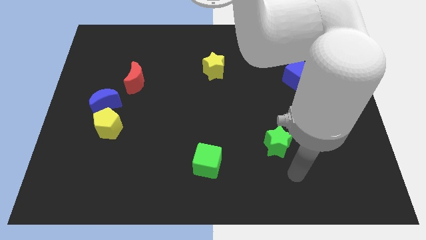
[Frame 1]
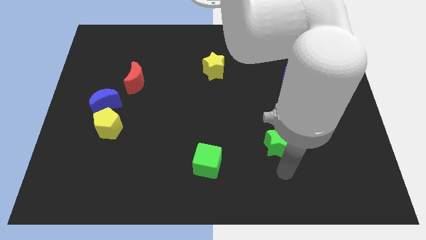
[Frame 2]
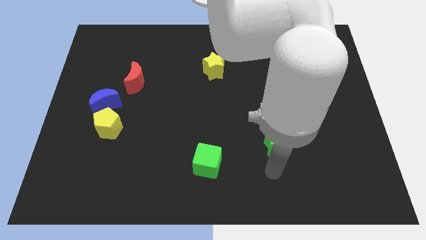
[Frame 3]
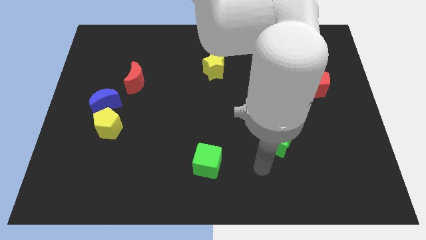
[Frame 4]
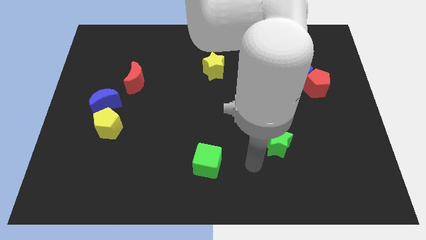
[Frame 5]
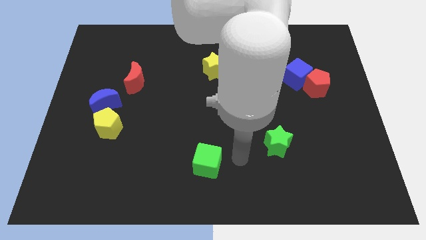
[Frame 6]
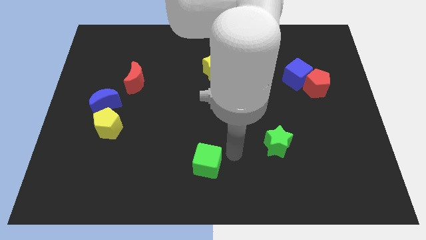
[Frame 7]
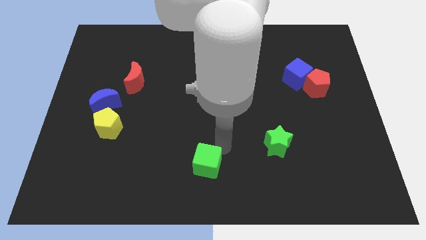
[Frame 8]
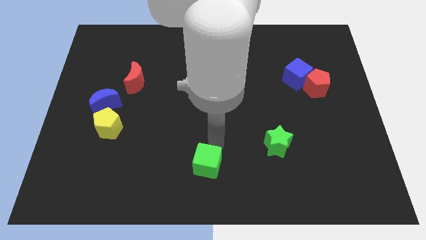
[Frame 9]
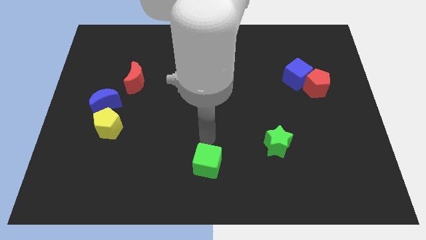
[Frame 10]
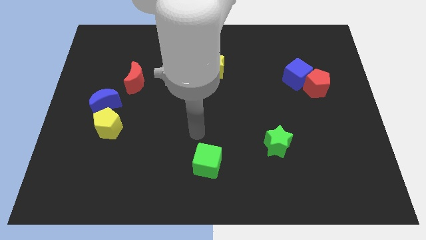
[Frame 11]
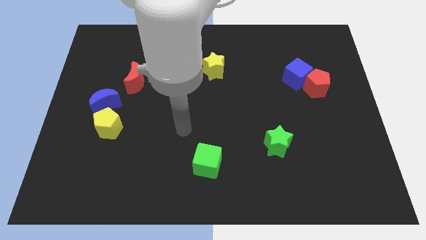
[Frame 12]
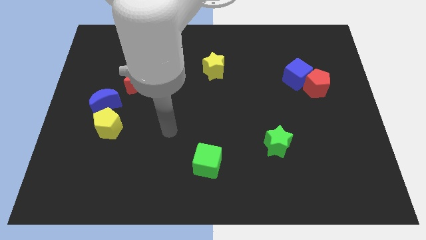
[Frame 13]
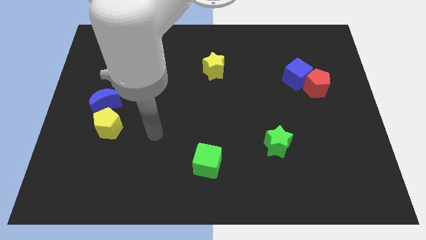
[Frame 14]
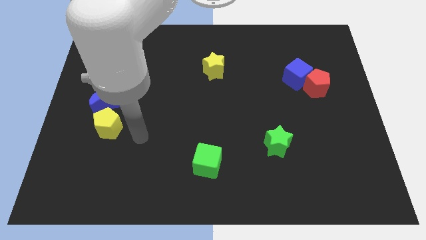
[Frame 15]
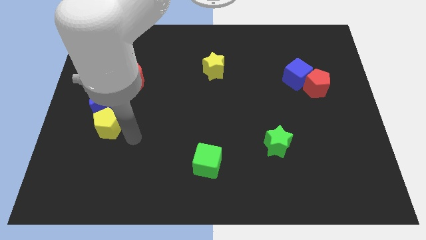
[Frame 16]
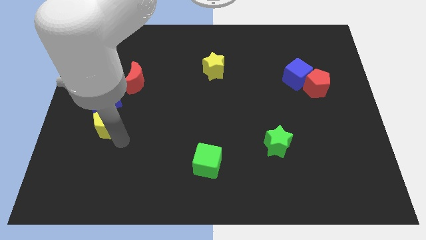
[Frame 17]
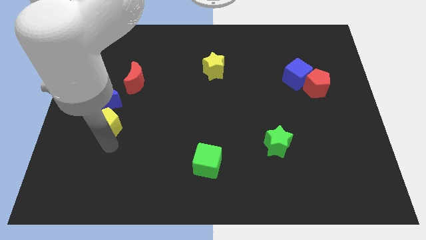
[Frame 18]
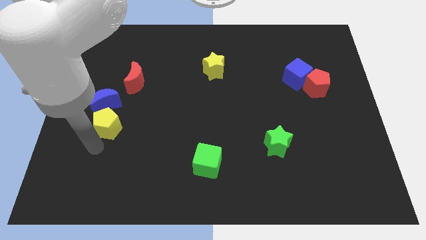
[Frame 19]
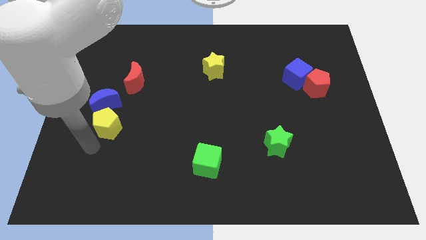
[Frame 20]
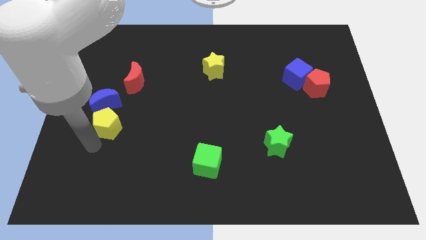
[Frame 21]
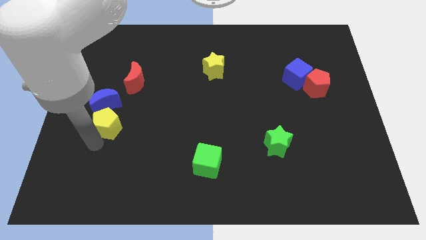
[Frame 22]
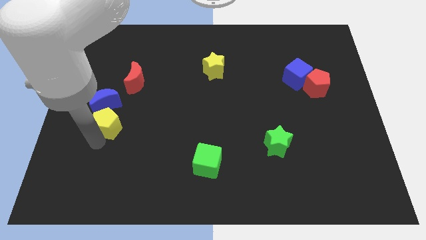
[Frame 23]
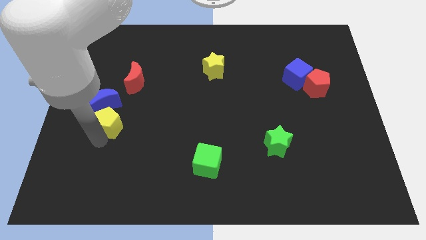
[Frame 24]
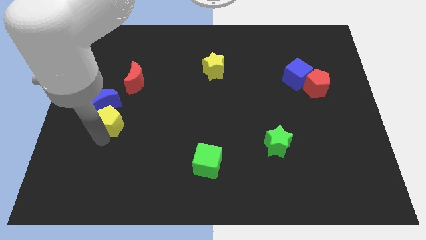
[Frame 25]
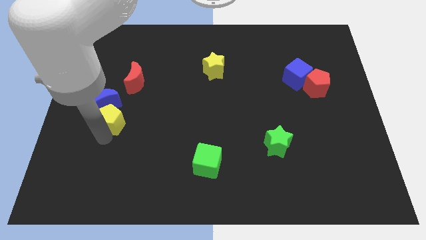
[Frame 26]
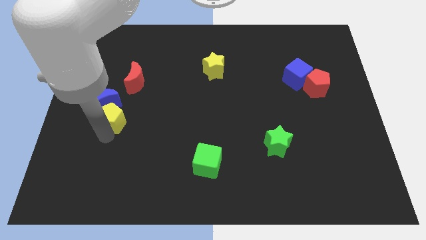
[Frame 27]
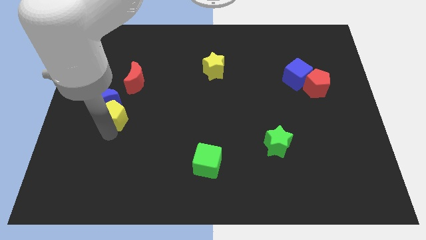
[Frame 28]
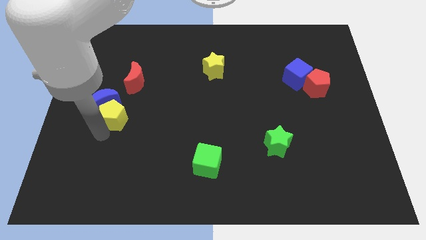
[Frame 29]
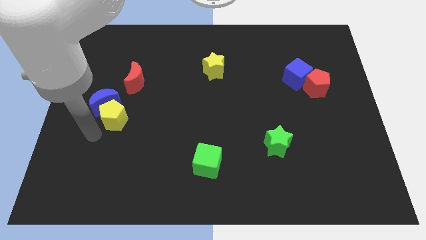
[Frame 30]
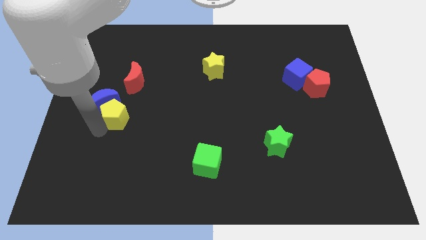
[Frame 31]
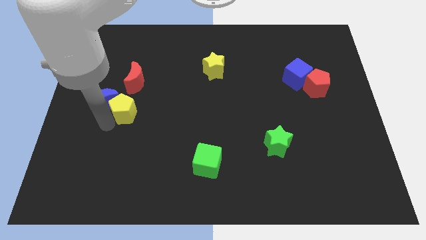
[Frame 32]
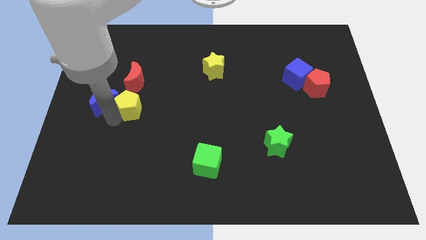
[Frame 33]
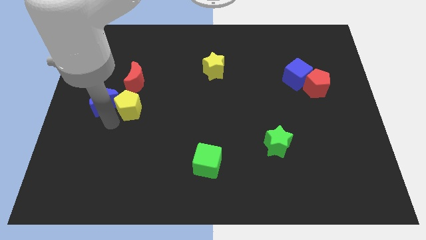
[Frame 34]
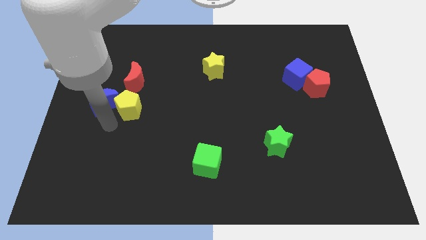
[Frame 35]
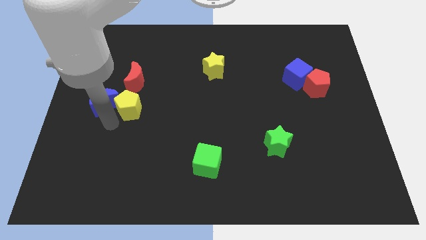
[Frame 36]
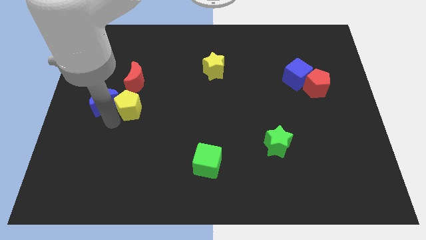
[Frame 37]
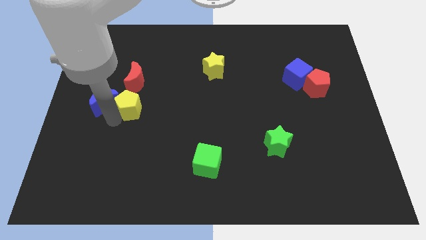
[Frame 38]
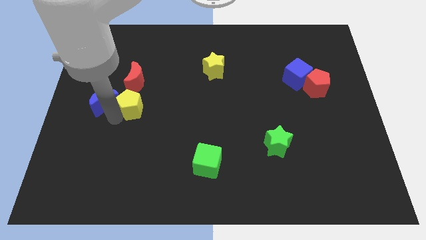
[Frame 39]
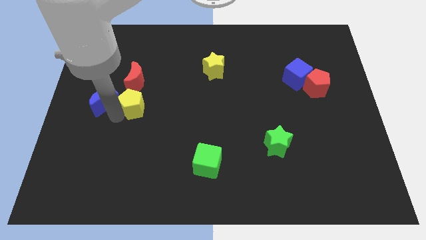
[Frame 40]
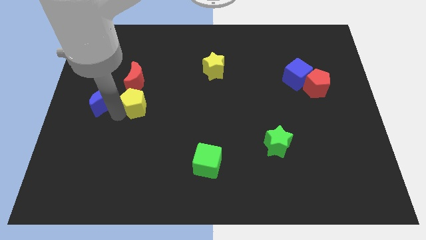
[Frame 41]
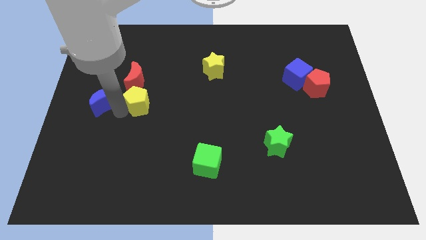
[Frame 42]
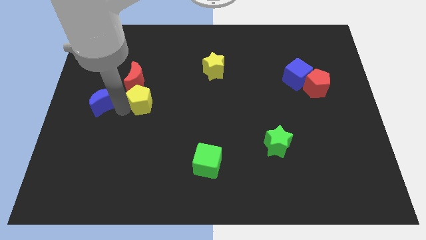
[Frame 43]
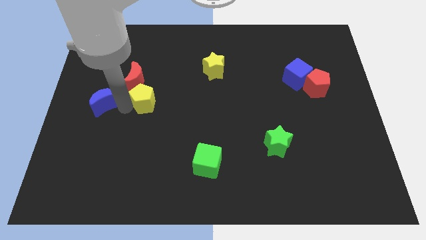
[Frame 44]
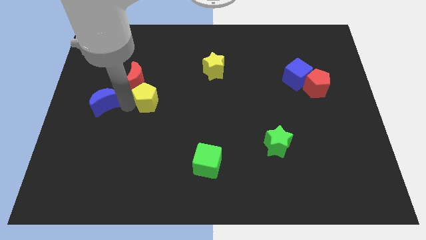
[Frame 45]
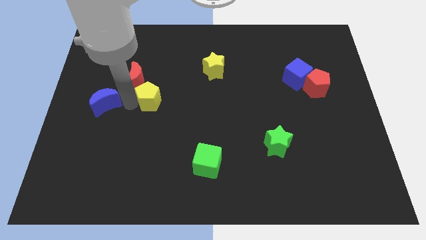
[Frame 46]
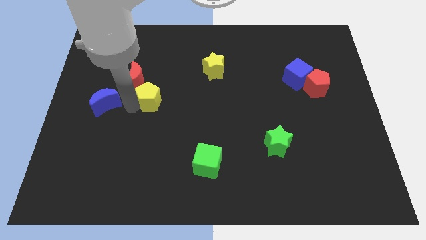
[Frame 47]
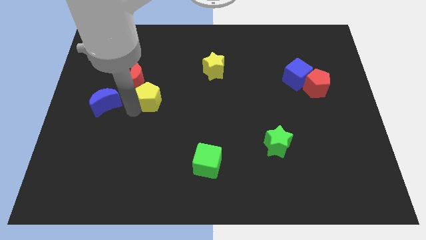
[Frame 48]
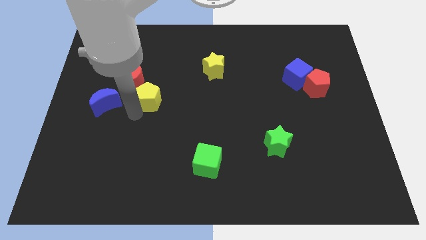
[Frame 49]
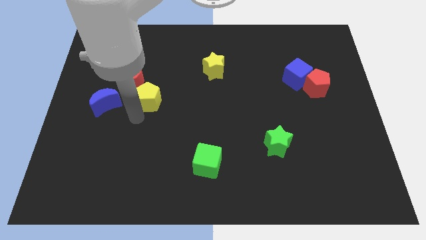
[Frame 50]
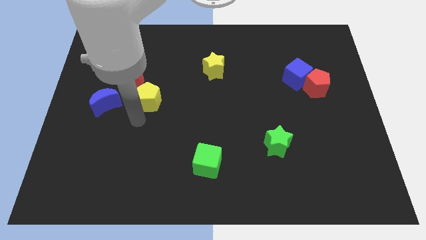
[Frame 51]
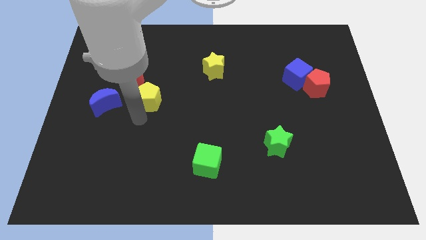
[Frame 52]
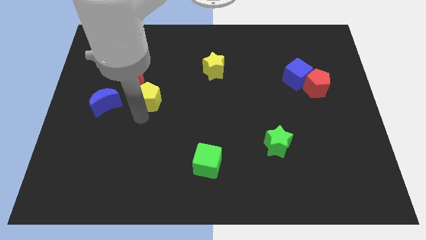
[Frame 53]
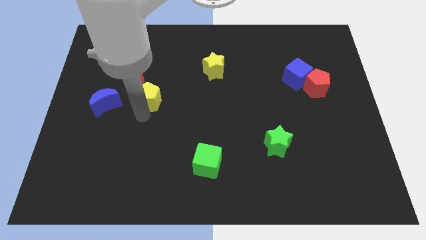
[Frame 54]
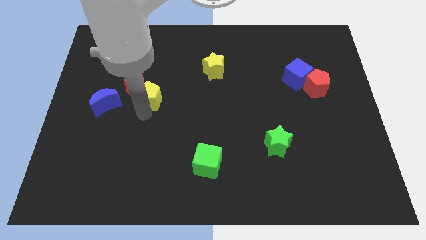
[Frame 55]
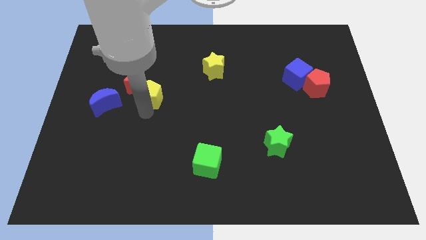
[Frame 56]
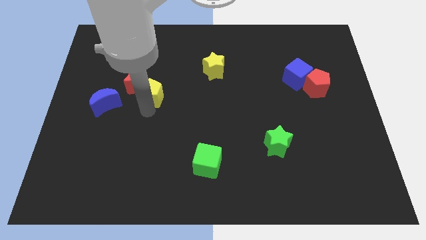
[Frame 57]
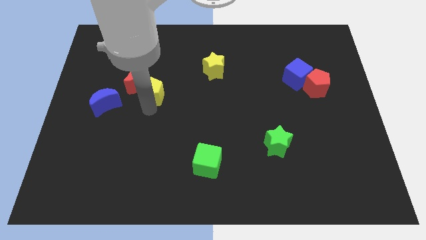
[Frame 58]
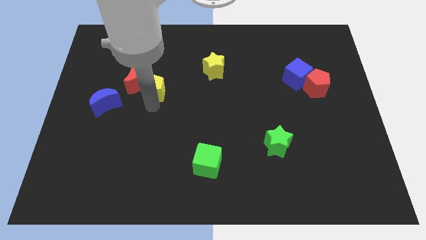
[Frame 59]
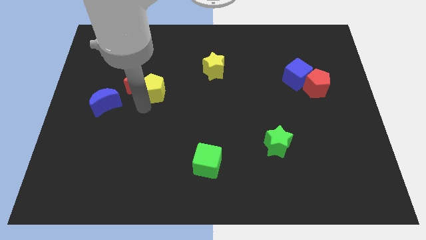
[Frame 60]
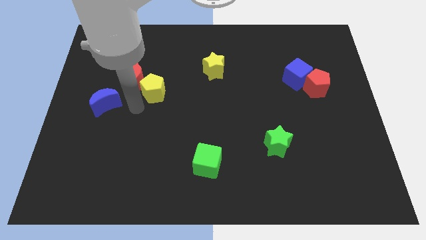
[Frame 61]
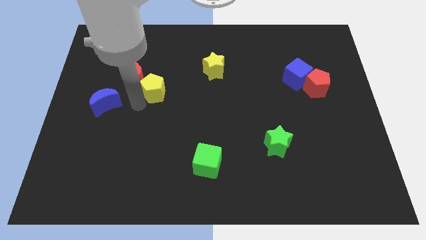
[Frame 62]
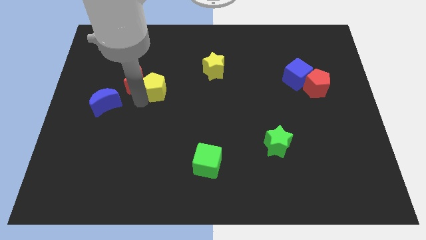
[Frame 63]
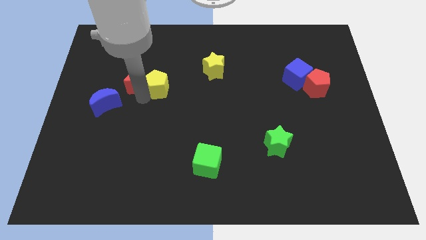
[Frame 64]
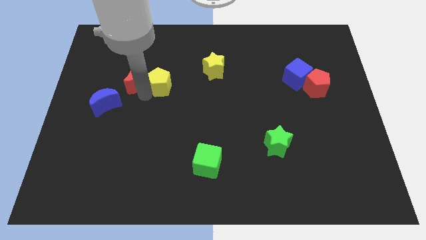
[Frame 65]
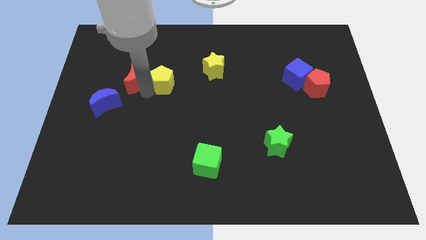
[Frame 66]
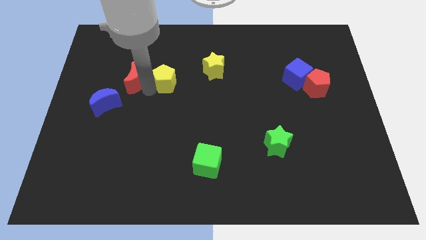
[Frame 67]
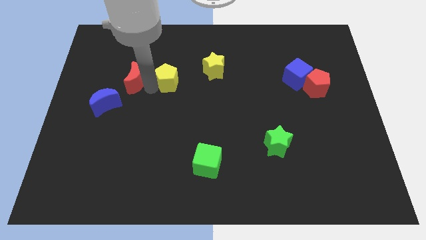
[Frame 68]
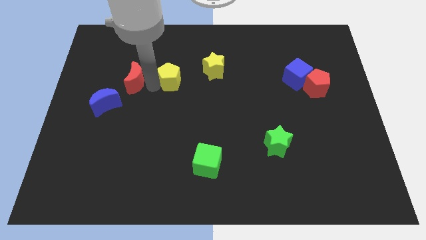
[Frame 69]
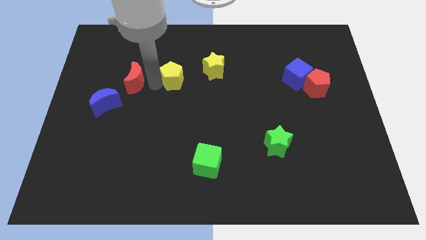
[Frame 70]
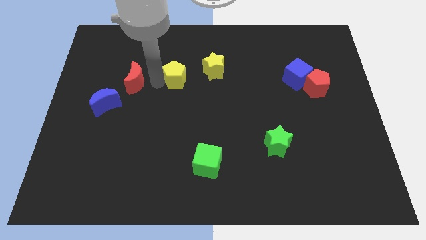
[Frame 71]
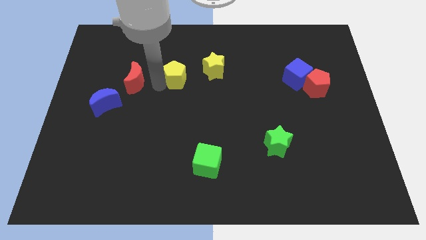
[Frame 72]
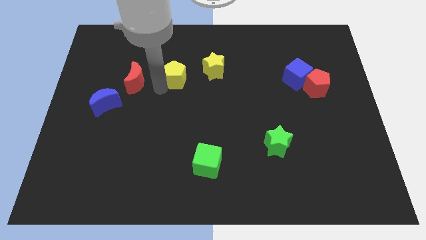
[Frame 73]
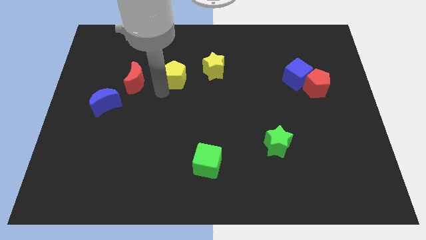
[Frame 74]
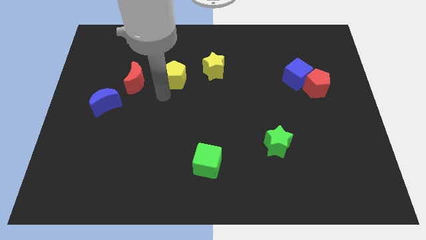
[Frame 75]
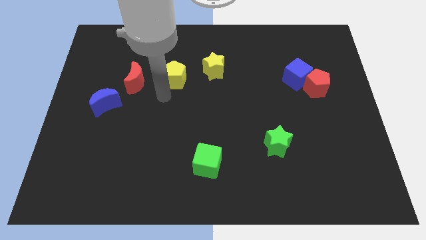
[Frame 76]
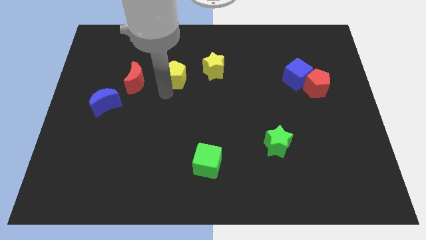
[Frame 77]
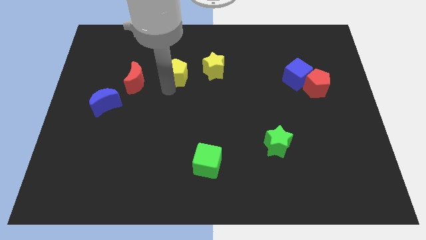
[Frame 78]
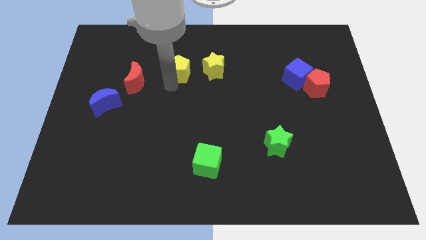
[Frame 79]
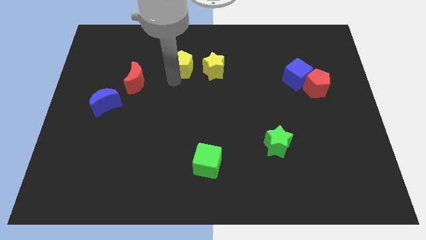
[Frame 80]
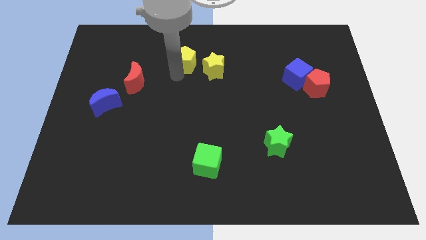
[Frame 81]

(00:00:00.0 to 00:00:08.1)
push the yellow pentagon to the top left of the yellow star
